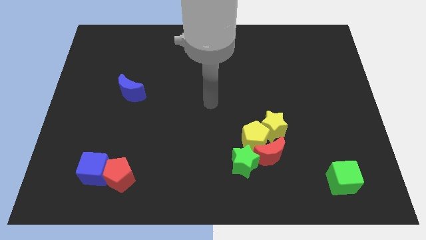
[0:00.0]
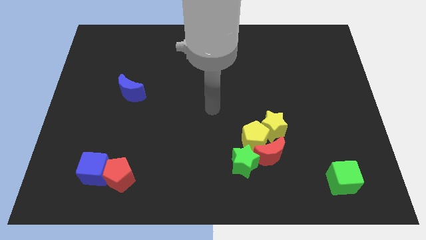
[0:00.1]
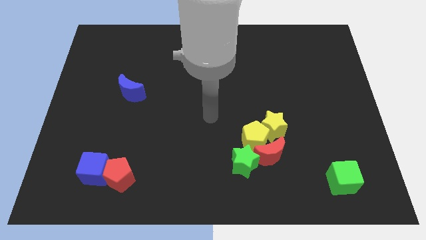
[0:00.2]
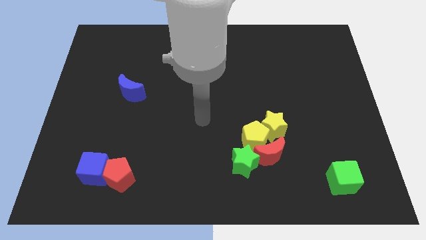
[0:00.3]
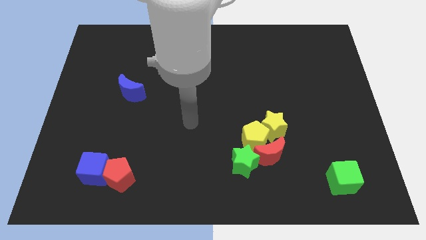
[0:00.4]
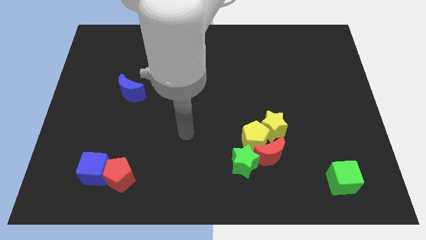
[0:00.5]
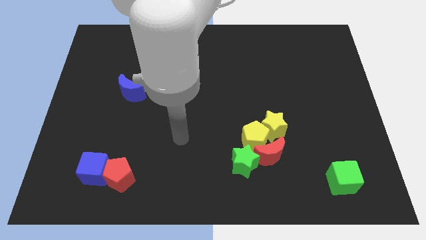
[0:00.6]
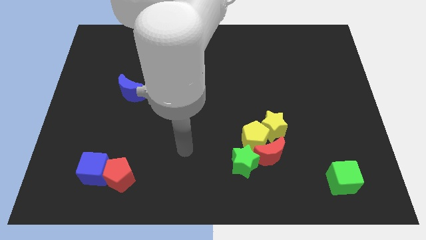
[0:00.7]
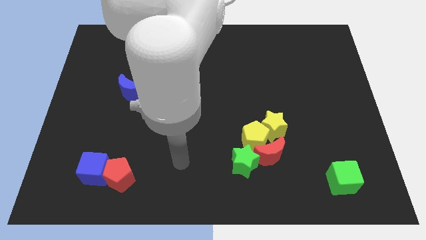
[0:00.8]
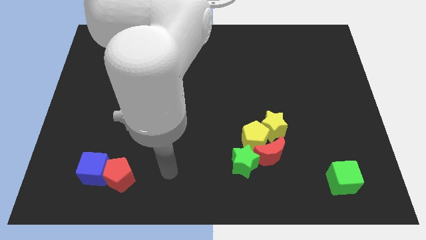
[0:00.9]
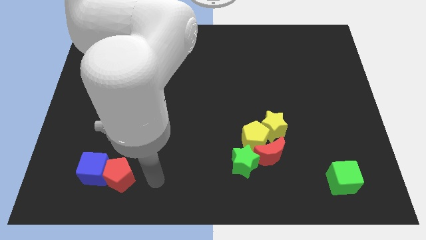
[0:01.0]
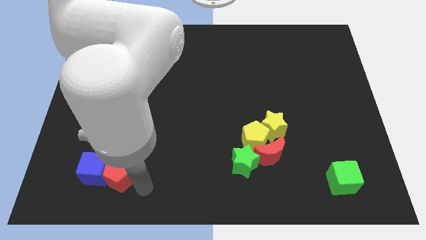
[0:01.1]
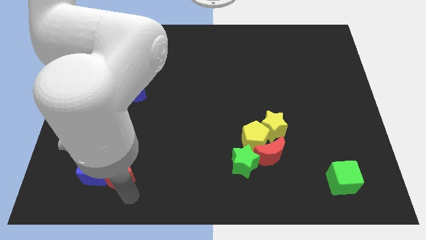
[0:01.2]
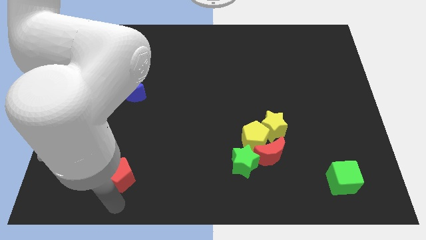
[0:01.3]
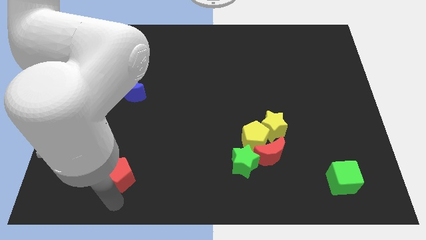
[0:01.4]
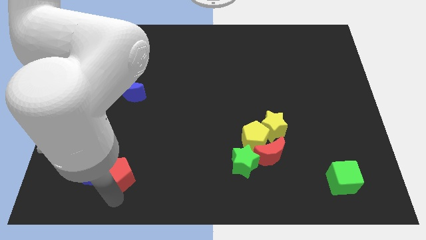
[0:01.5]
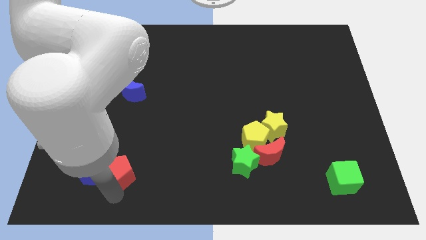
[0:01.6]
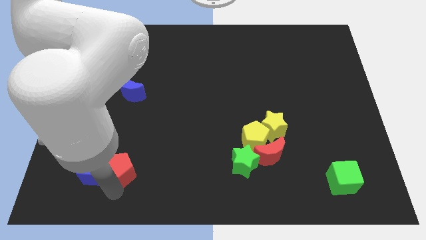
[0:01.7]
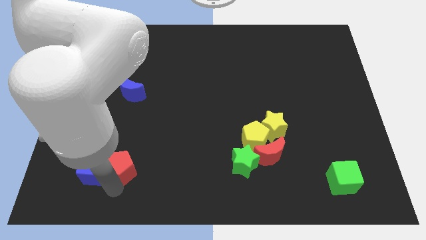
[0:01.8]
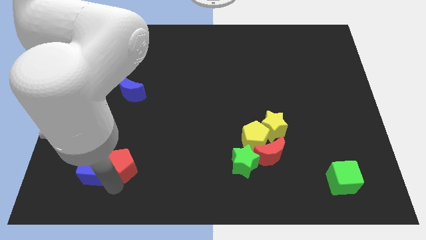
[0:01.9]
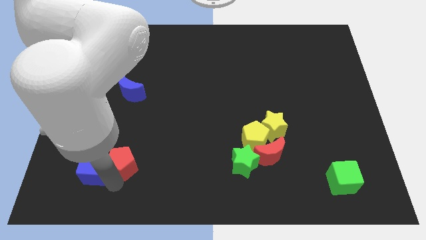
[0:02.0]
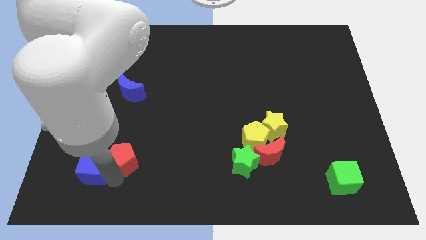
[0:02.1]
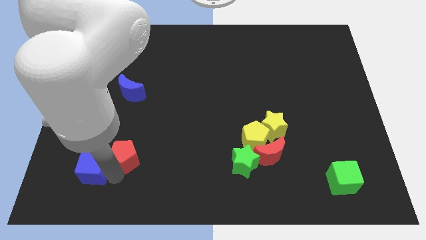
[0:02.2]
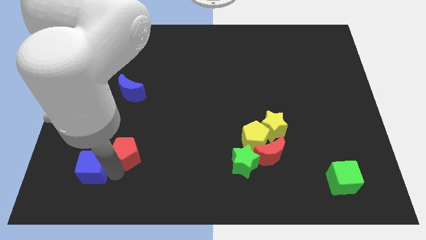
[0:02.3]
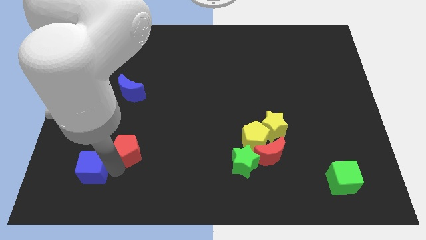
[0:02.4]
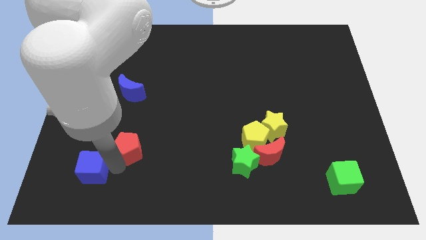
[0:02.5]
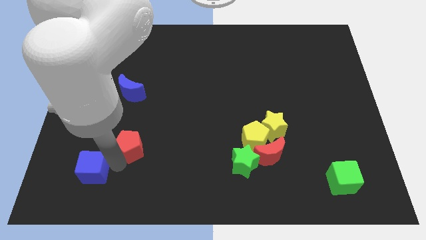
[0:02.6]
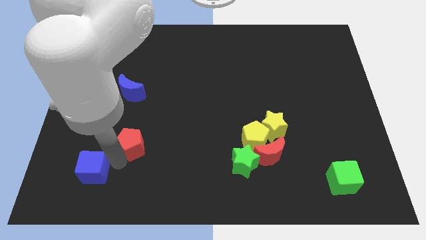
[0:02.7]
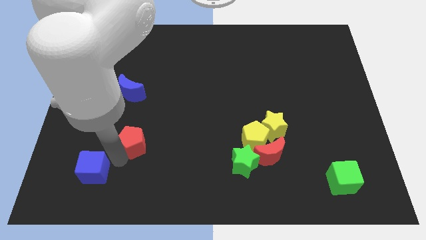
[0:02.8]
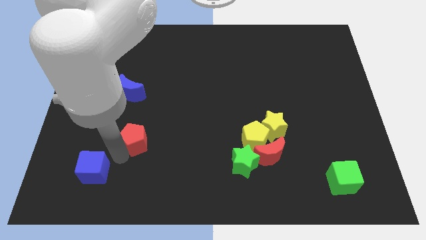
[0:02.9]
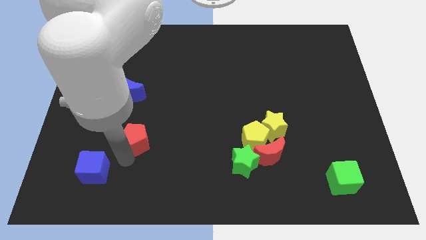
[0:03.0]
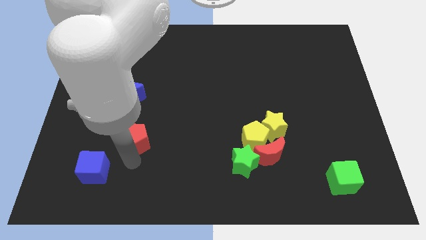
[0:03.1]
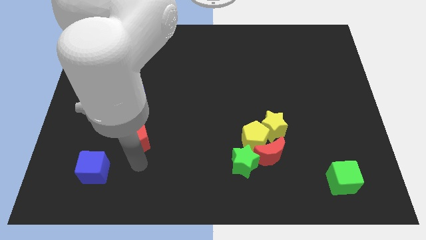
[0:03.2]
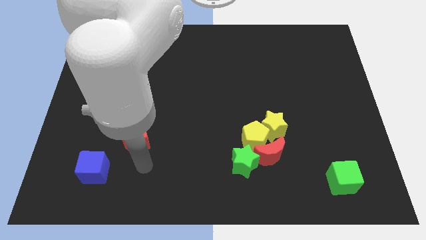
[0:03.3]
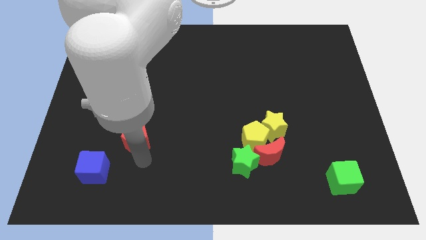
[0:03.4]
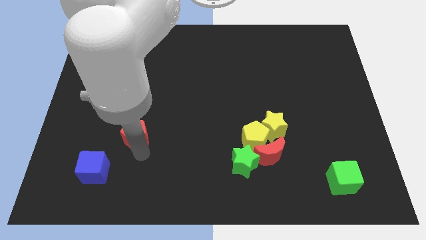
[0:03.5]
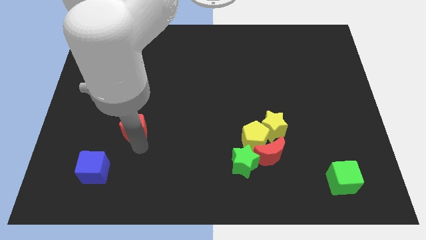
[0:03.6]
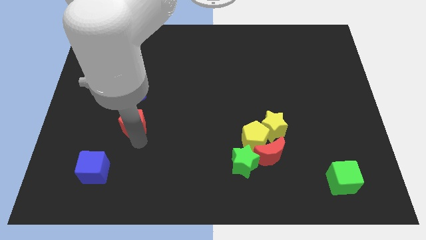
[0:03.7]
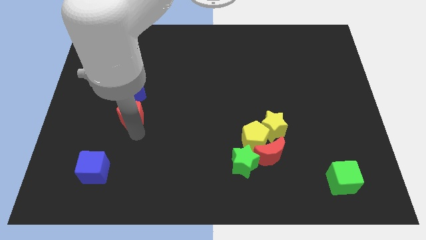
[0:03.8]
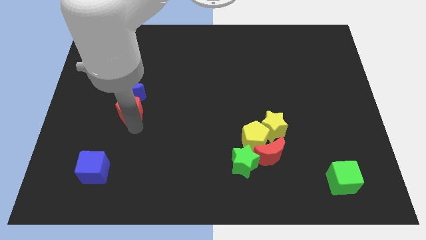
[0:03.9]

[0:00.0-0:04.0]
slide the red pentagon towards the blue moon

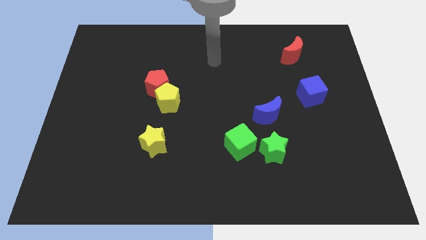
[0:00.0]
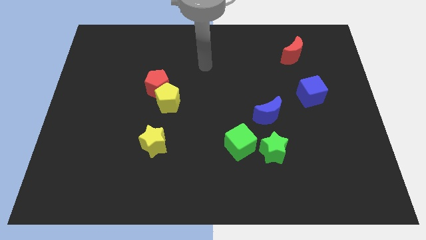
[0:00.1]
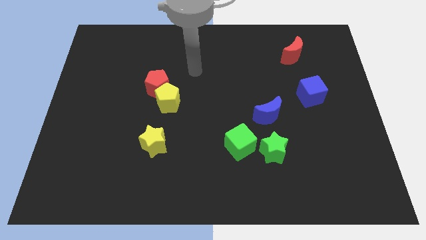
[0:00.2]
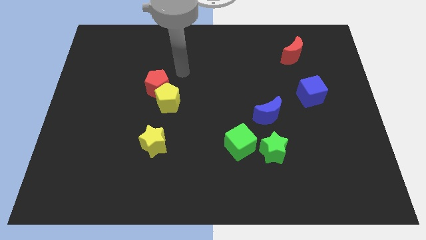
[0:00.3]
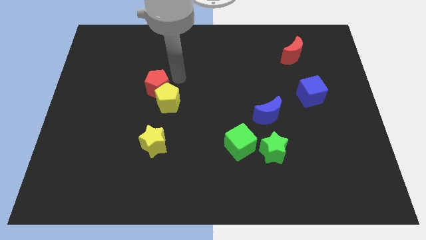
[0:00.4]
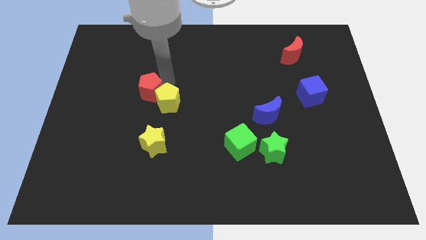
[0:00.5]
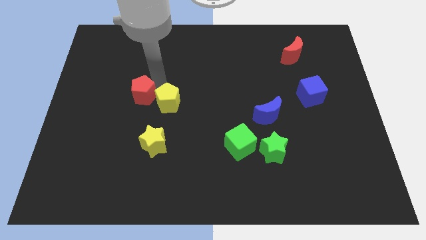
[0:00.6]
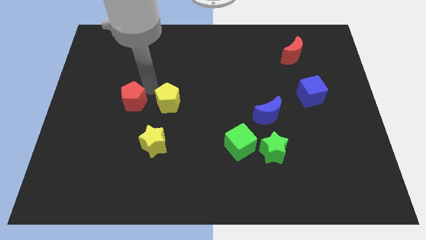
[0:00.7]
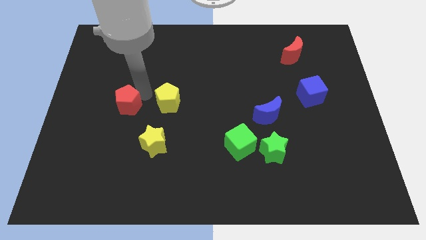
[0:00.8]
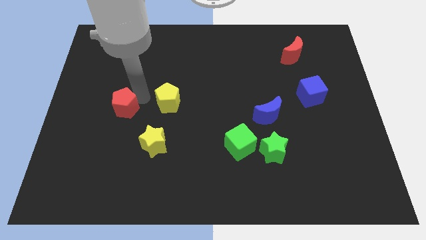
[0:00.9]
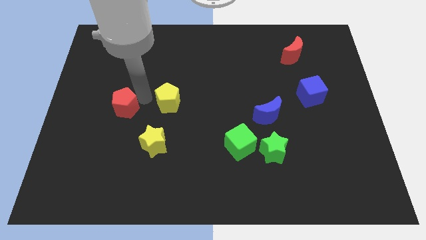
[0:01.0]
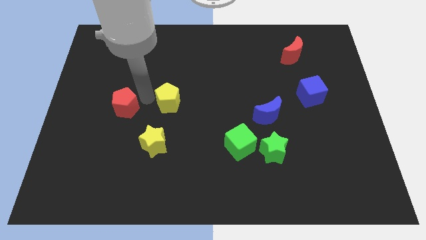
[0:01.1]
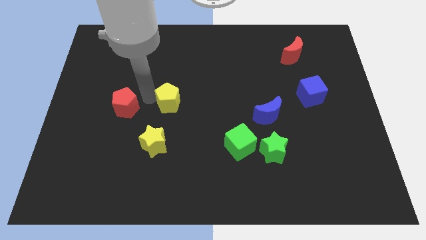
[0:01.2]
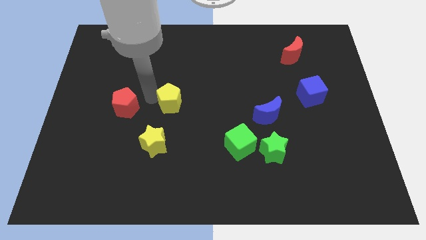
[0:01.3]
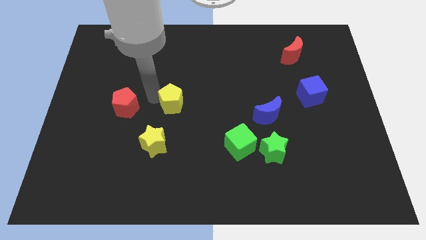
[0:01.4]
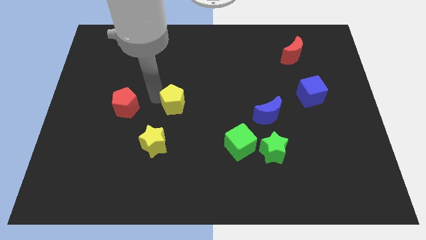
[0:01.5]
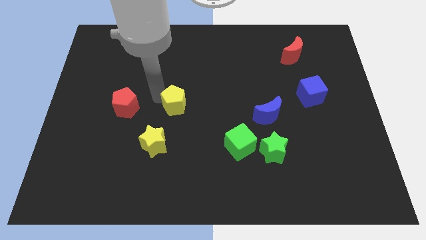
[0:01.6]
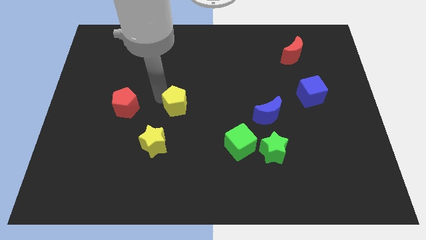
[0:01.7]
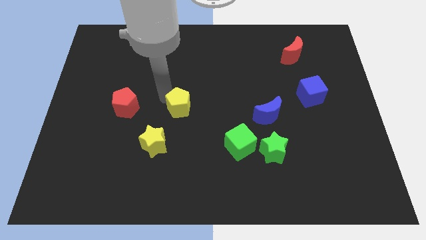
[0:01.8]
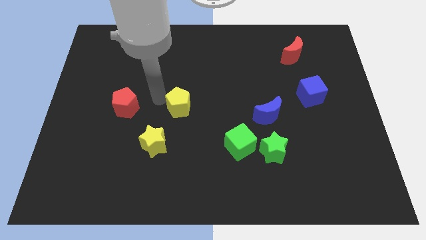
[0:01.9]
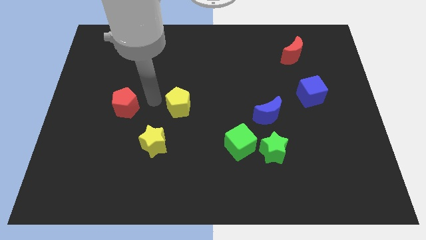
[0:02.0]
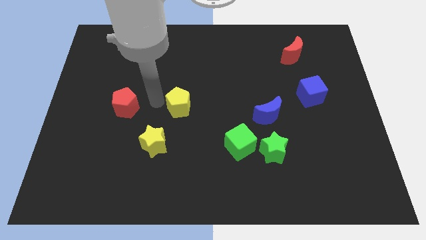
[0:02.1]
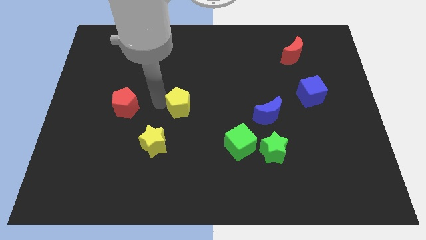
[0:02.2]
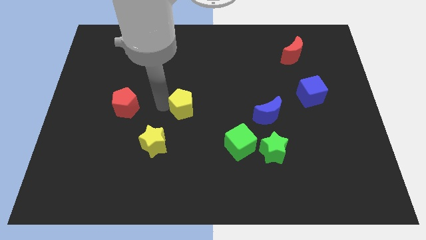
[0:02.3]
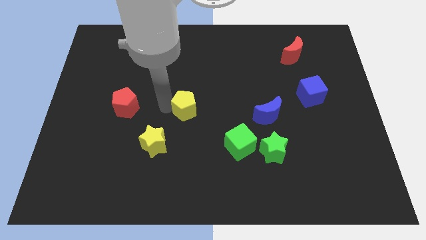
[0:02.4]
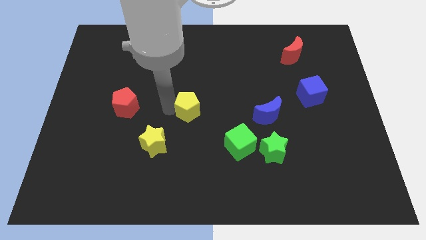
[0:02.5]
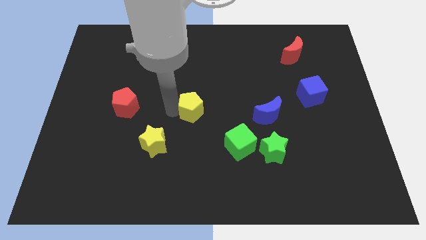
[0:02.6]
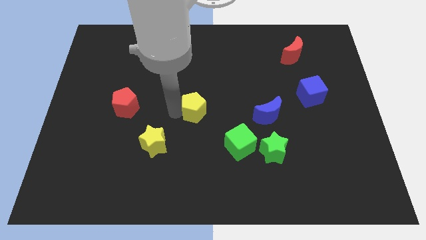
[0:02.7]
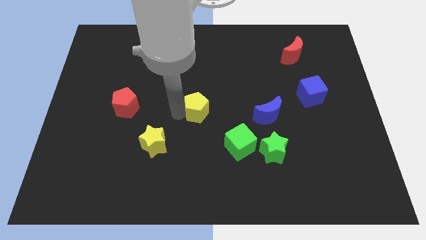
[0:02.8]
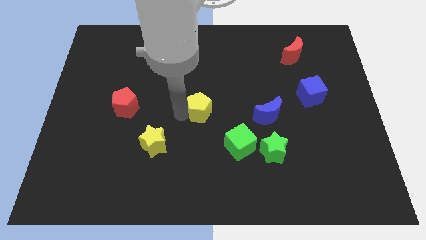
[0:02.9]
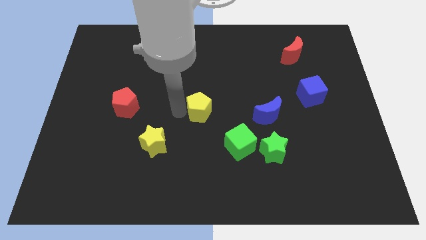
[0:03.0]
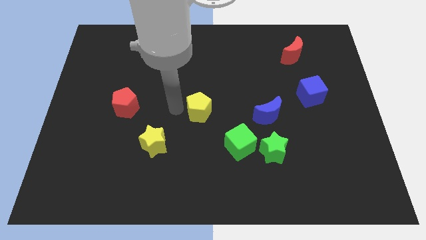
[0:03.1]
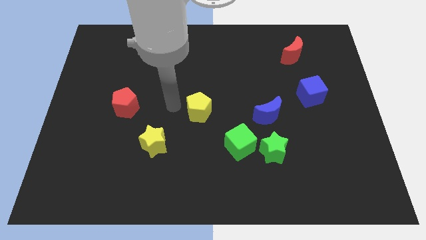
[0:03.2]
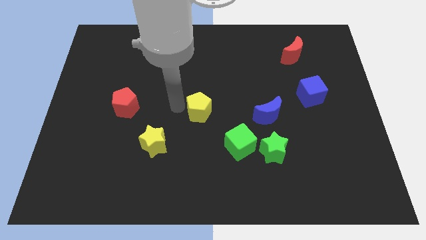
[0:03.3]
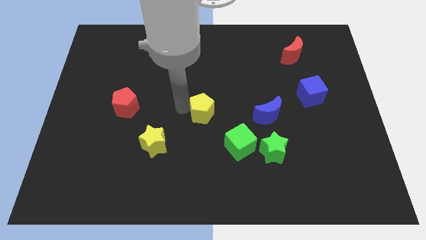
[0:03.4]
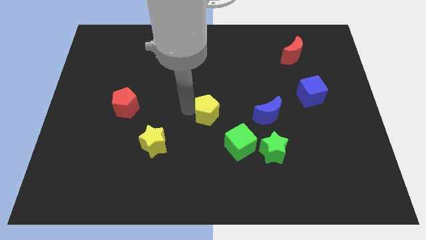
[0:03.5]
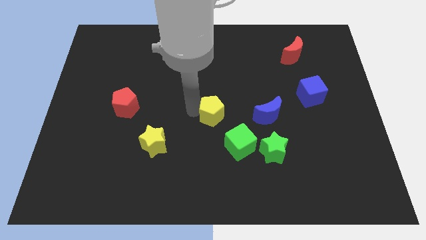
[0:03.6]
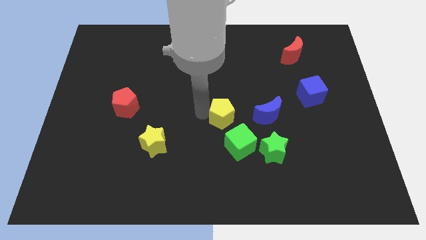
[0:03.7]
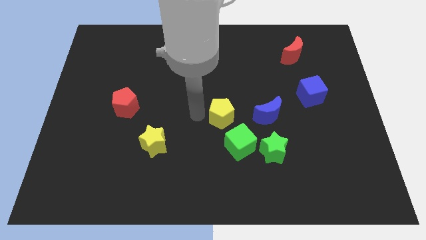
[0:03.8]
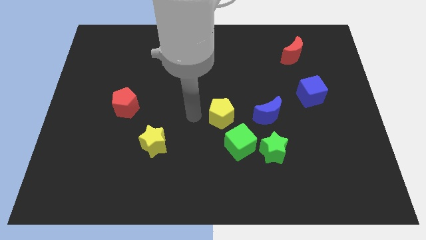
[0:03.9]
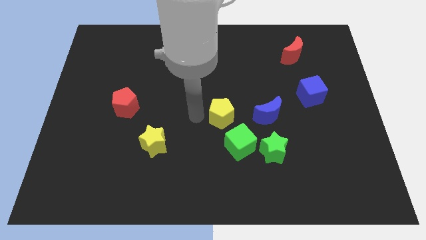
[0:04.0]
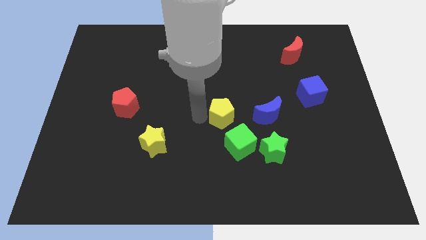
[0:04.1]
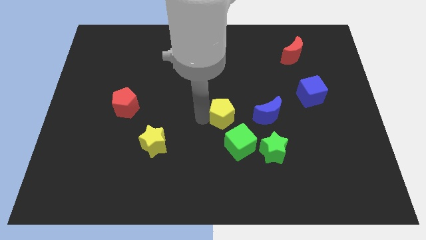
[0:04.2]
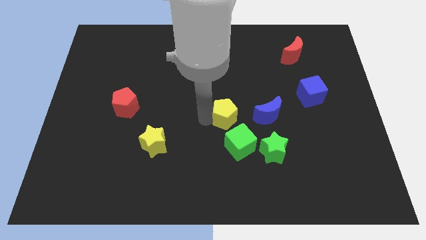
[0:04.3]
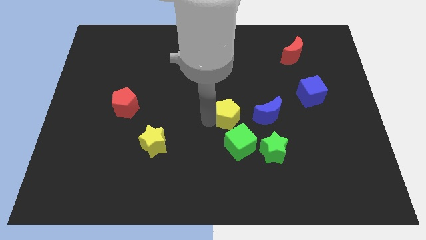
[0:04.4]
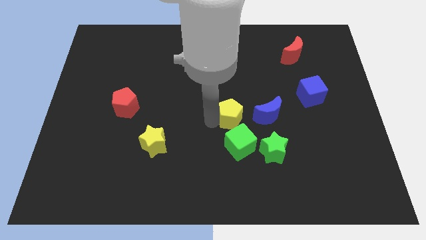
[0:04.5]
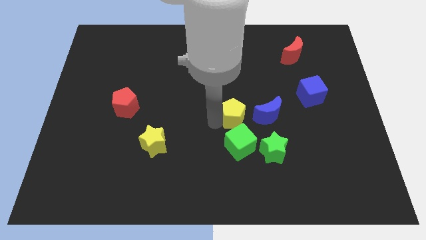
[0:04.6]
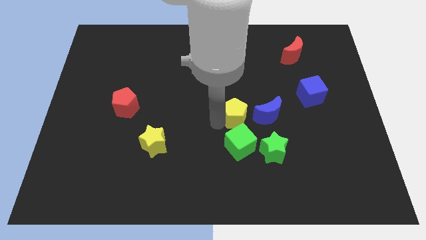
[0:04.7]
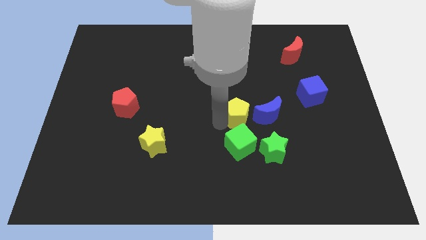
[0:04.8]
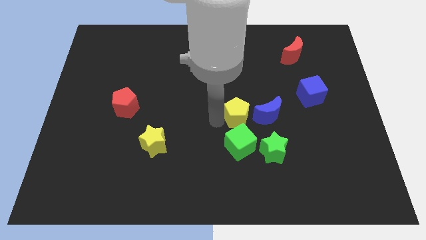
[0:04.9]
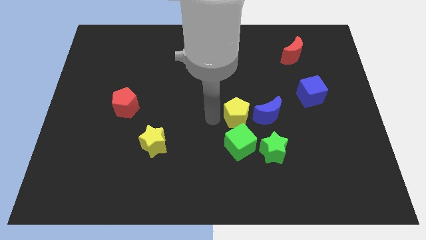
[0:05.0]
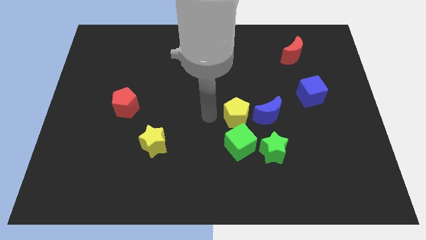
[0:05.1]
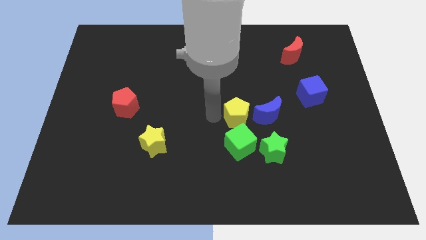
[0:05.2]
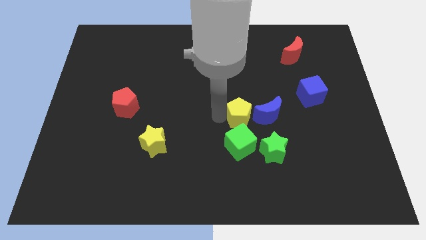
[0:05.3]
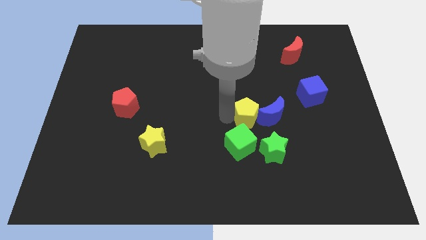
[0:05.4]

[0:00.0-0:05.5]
slide the yellow pentagon close to the blue moon
